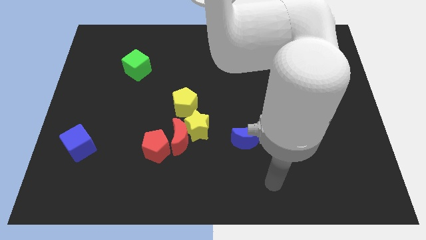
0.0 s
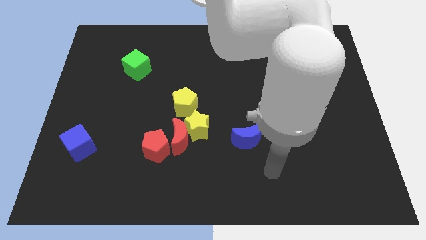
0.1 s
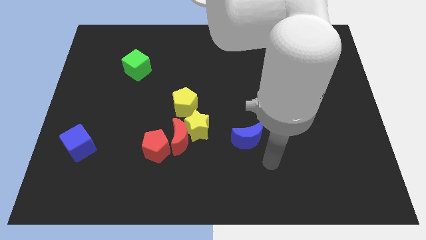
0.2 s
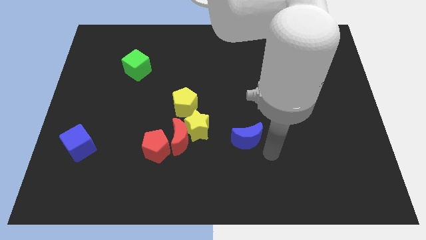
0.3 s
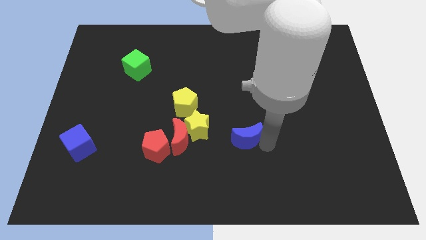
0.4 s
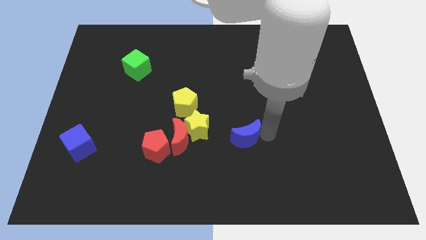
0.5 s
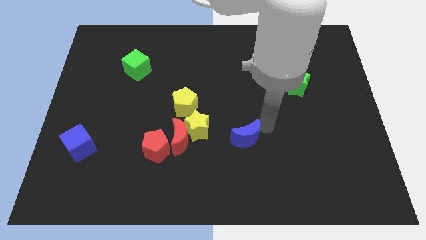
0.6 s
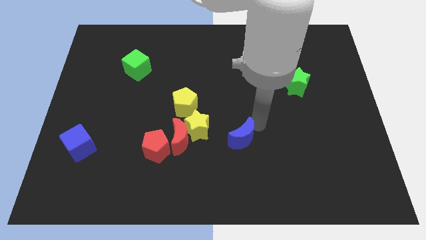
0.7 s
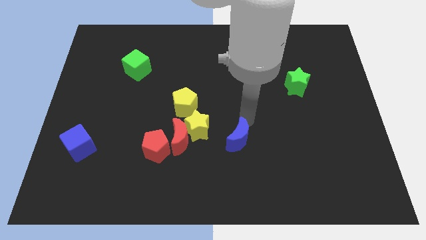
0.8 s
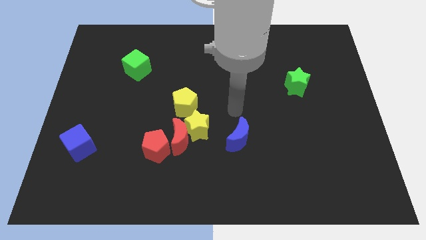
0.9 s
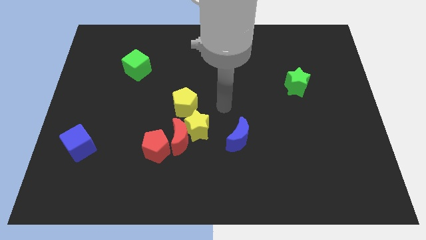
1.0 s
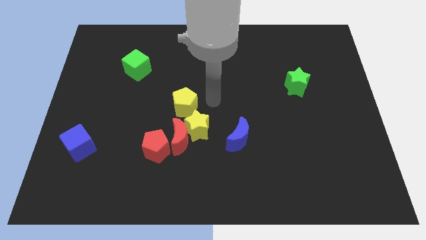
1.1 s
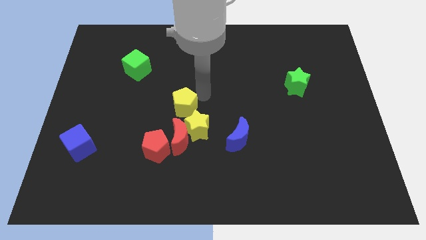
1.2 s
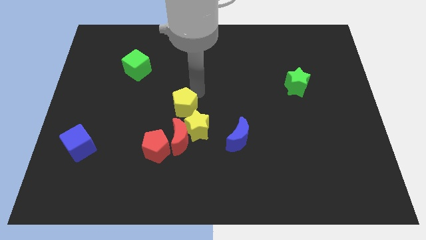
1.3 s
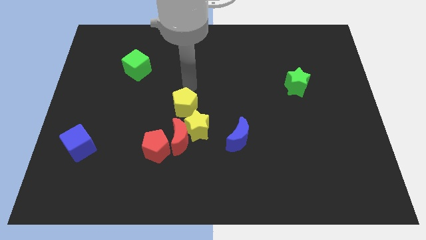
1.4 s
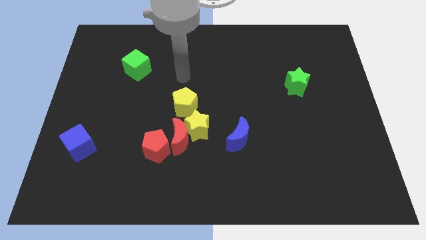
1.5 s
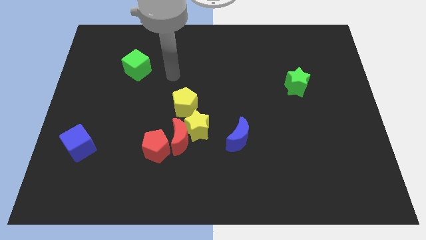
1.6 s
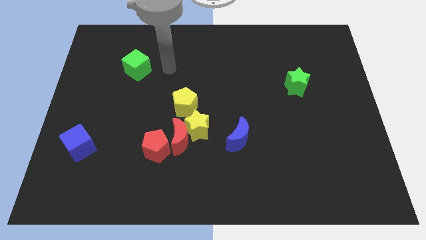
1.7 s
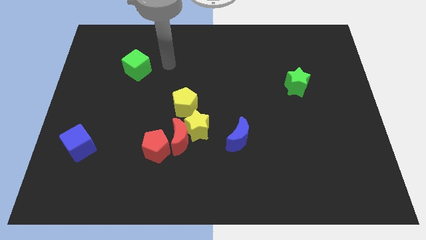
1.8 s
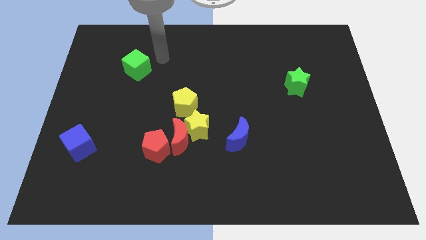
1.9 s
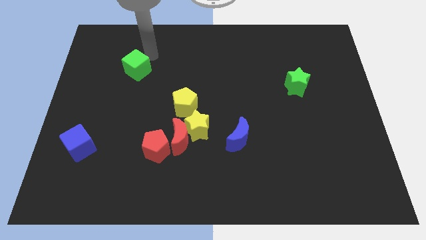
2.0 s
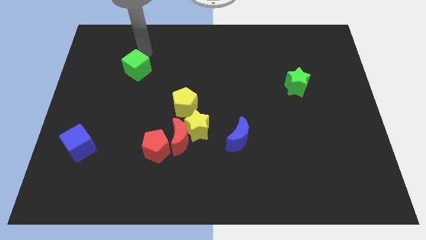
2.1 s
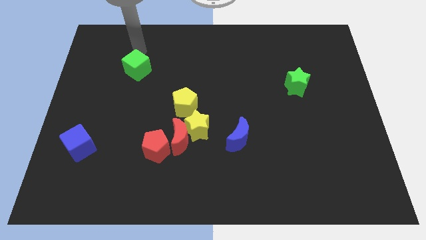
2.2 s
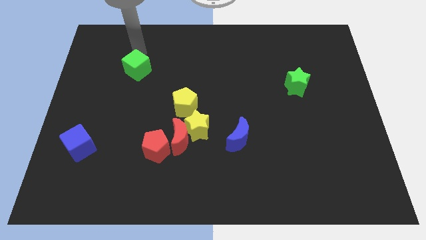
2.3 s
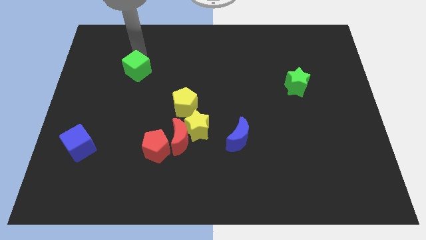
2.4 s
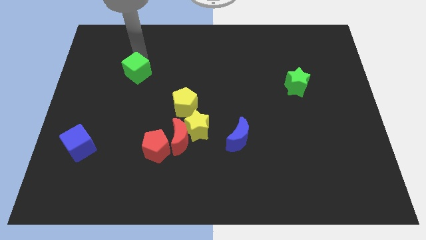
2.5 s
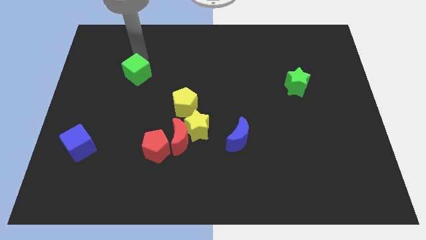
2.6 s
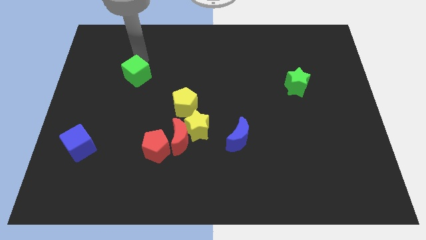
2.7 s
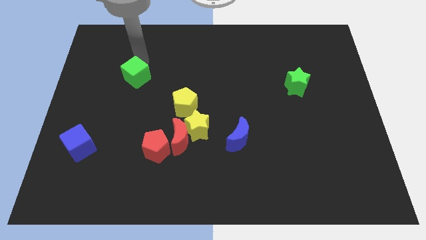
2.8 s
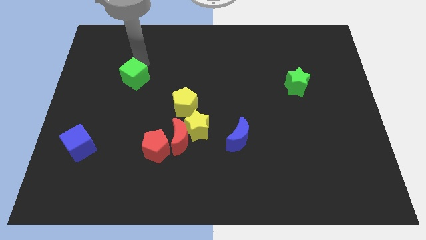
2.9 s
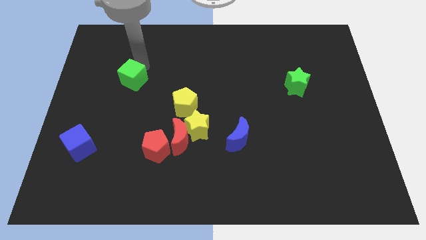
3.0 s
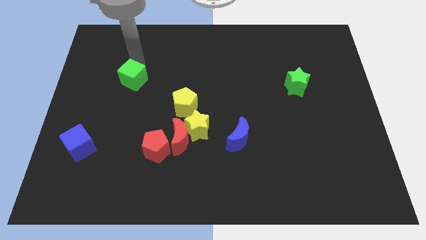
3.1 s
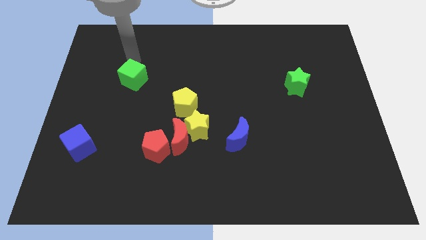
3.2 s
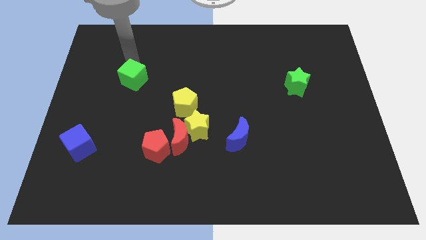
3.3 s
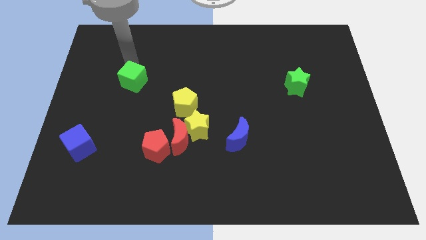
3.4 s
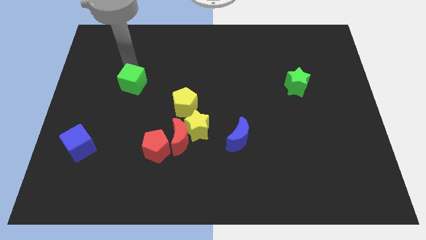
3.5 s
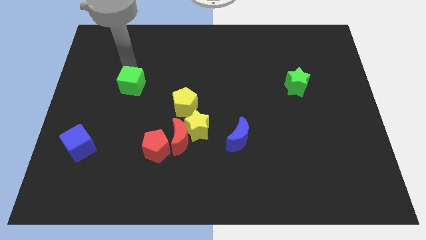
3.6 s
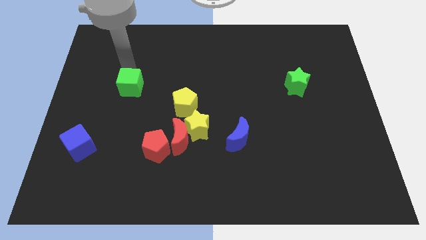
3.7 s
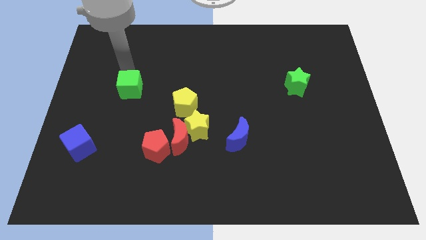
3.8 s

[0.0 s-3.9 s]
slightly move the green cube down

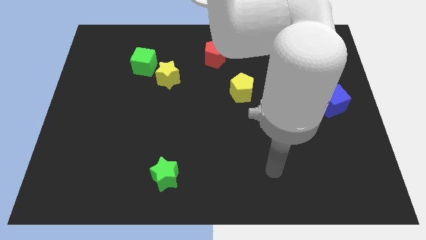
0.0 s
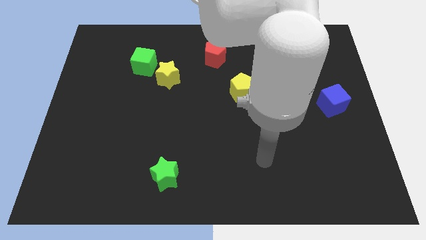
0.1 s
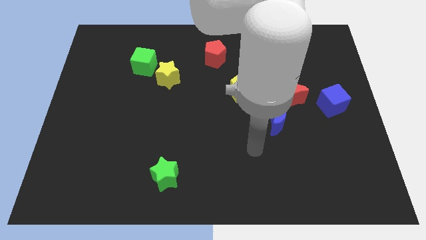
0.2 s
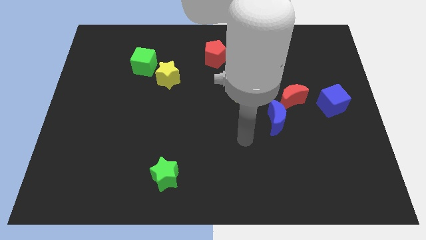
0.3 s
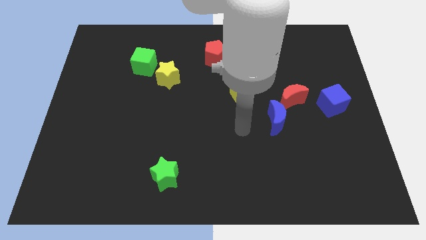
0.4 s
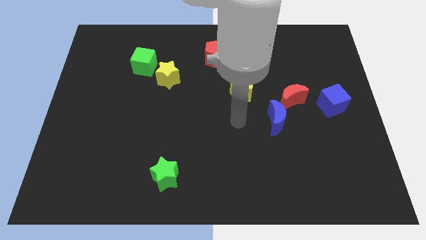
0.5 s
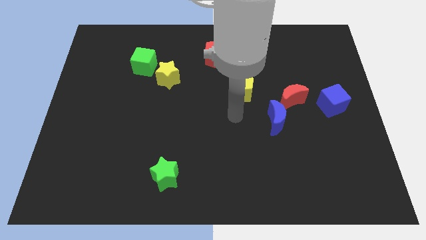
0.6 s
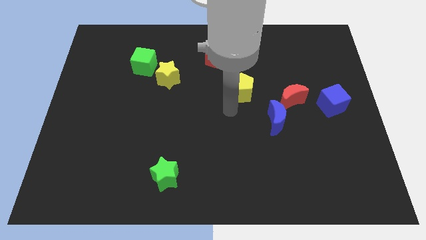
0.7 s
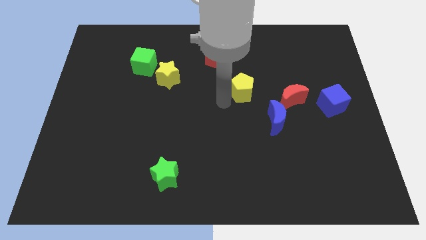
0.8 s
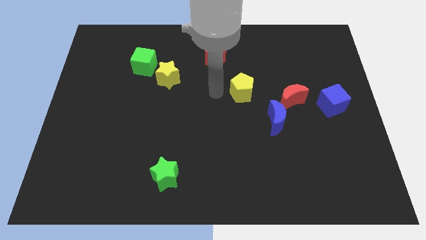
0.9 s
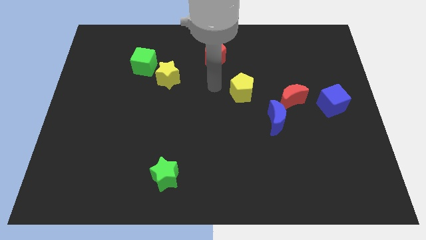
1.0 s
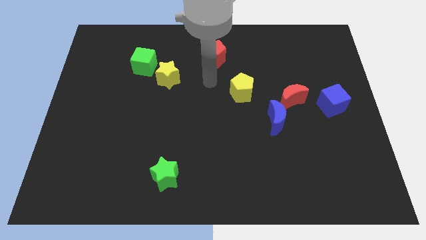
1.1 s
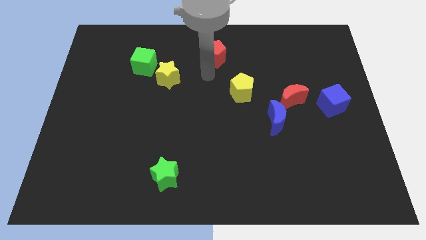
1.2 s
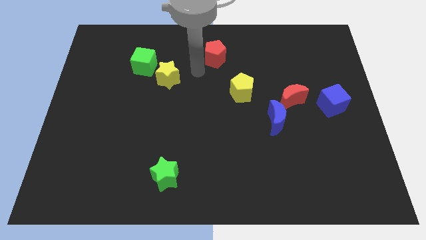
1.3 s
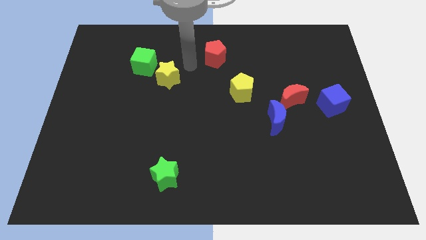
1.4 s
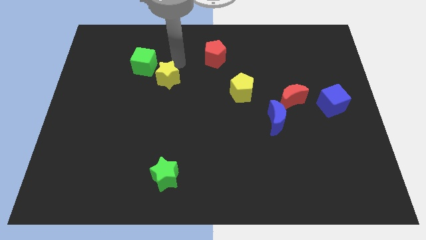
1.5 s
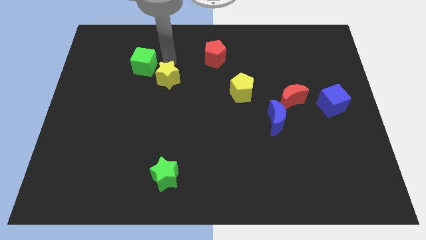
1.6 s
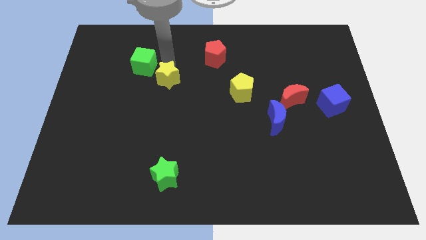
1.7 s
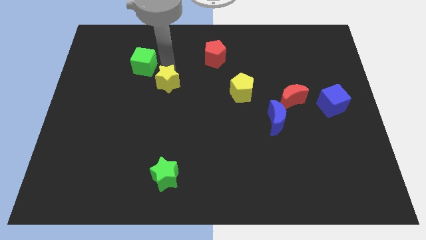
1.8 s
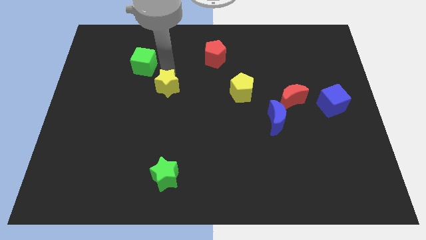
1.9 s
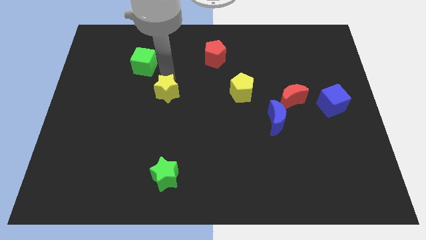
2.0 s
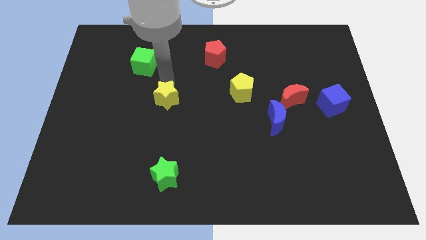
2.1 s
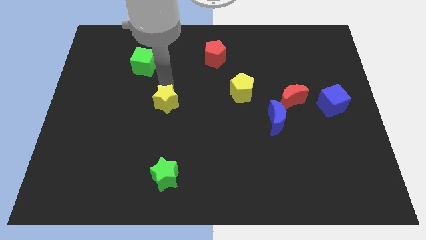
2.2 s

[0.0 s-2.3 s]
push the yellow star down slightly

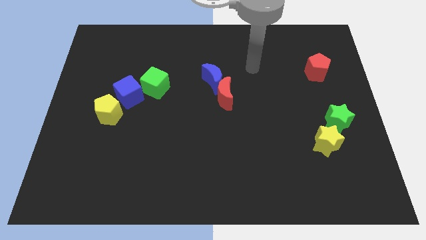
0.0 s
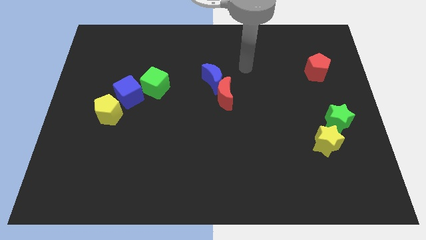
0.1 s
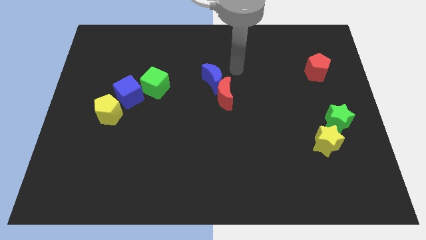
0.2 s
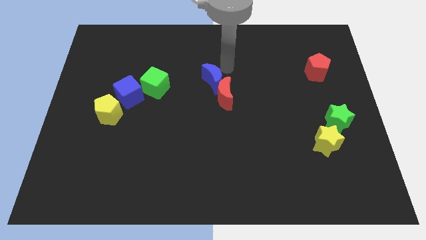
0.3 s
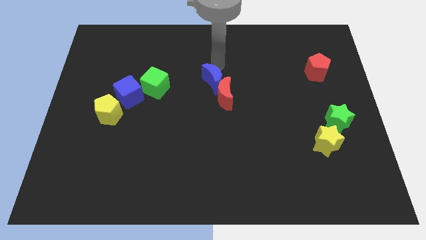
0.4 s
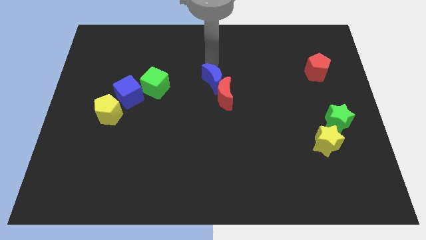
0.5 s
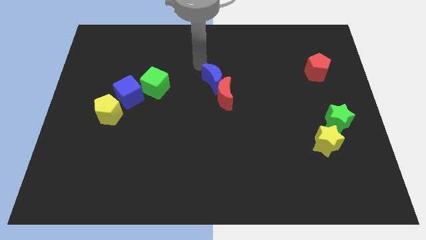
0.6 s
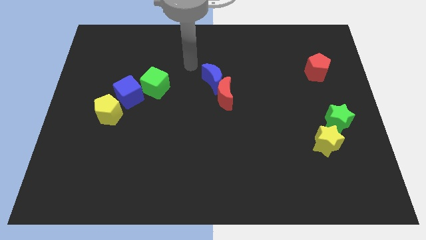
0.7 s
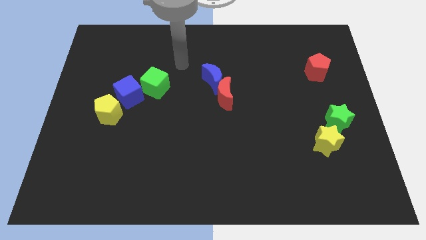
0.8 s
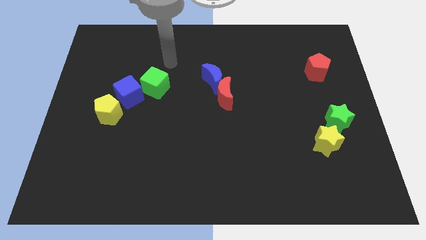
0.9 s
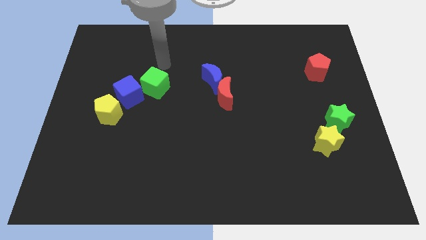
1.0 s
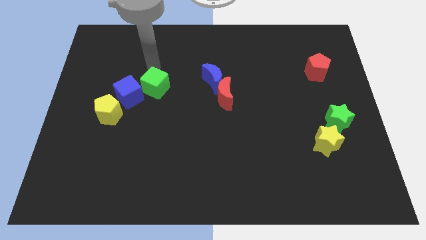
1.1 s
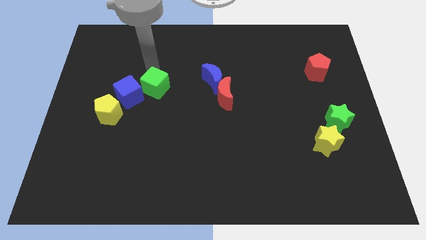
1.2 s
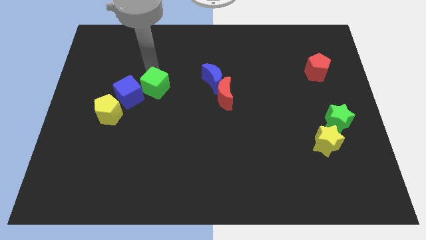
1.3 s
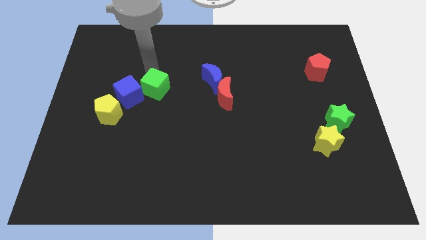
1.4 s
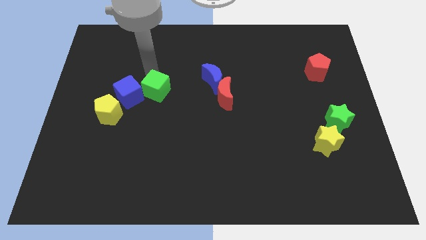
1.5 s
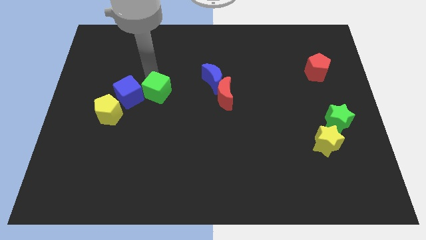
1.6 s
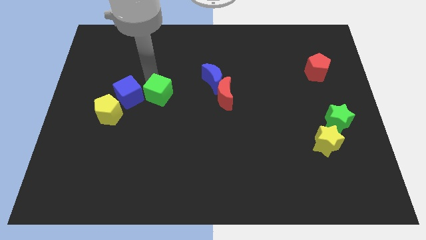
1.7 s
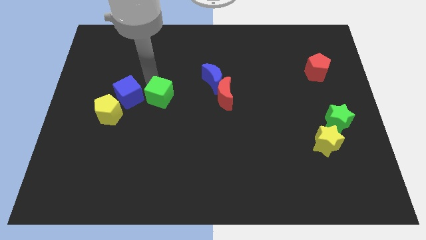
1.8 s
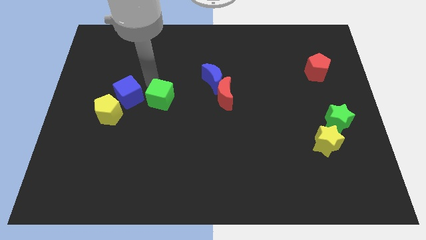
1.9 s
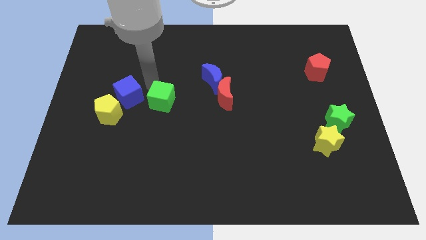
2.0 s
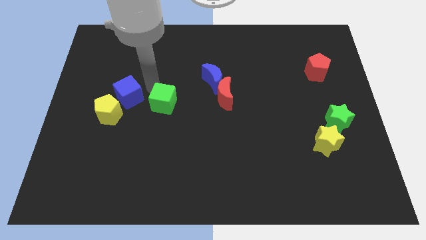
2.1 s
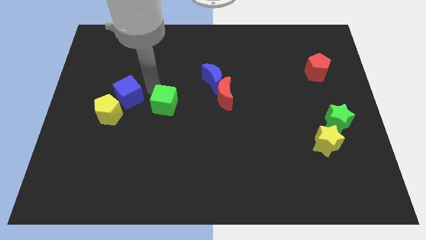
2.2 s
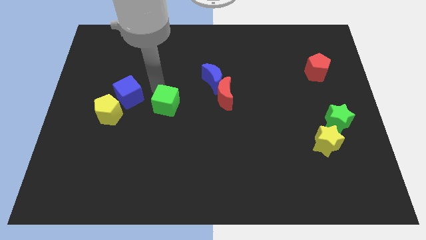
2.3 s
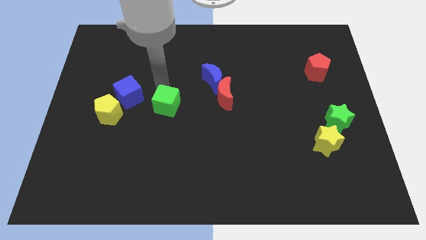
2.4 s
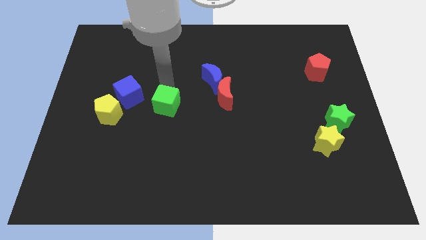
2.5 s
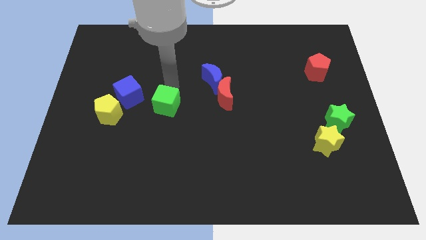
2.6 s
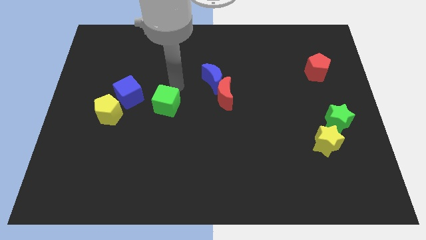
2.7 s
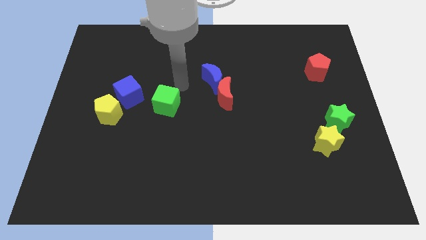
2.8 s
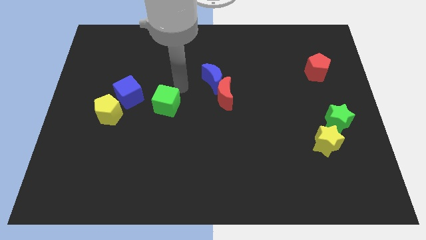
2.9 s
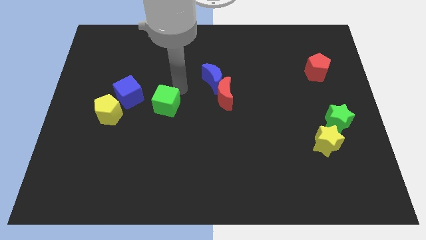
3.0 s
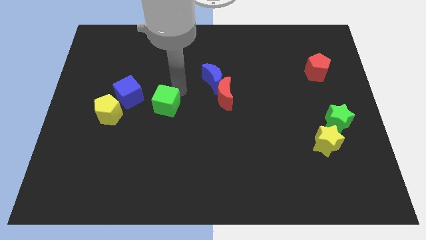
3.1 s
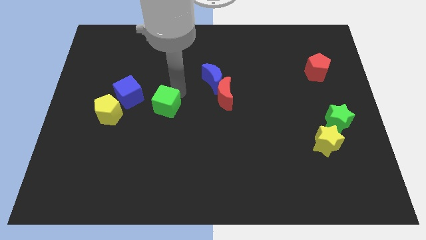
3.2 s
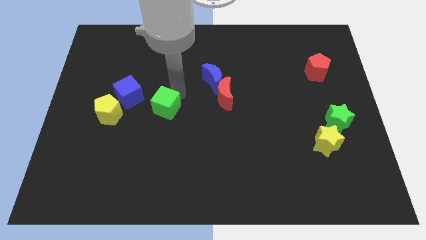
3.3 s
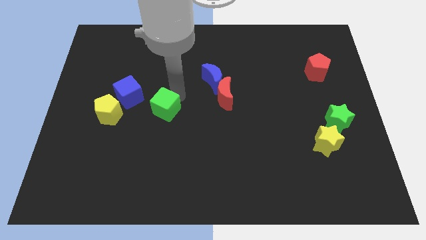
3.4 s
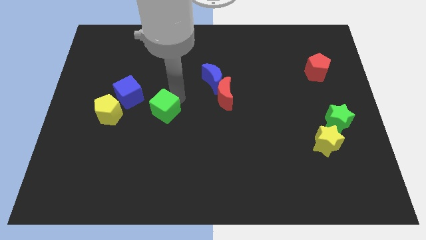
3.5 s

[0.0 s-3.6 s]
move the green cube down somewhat
